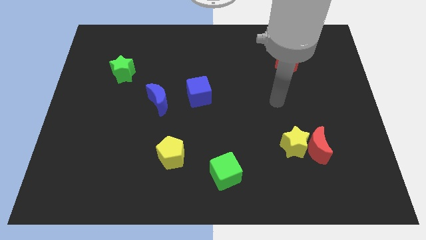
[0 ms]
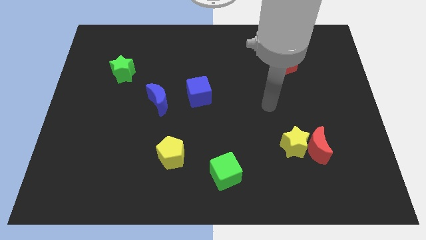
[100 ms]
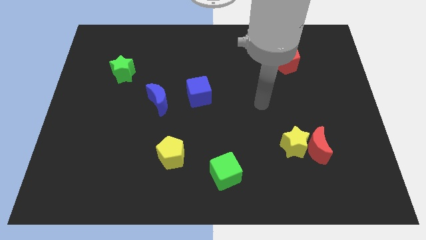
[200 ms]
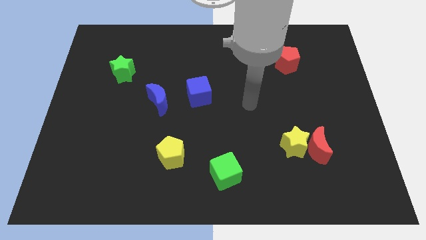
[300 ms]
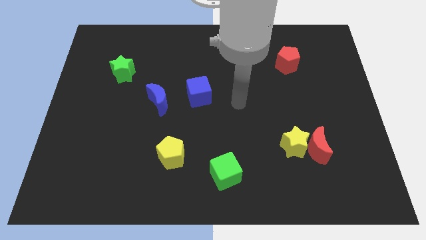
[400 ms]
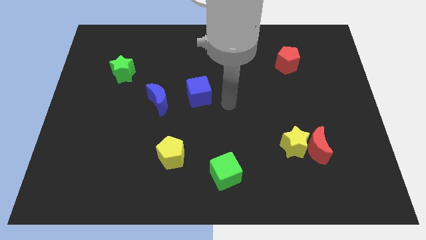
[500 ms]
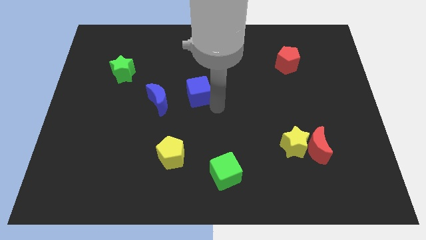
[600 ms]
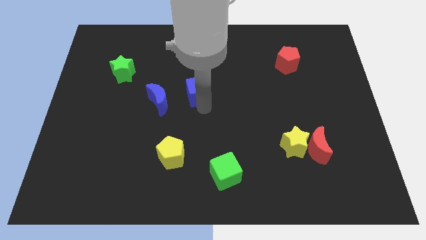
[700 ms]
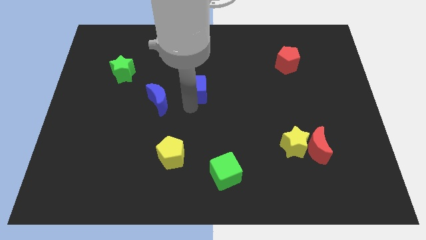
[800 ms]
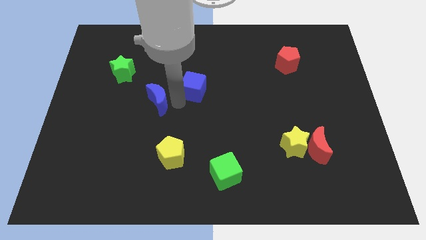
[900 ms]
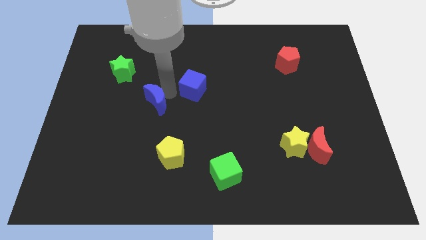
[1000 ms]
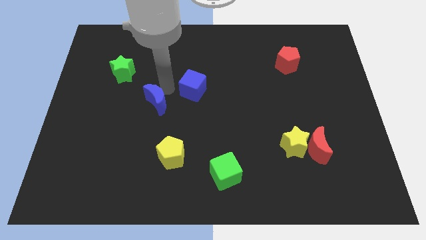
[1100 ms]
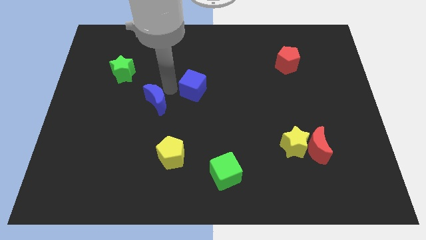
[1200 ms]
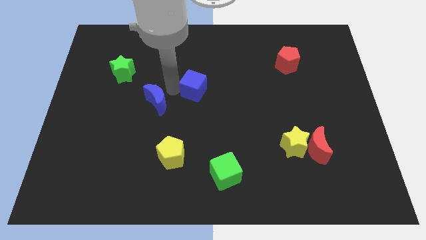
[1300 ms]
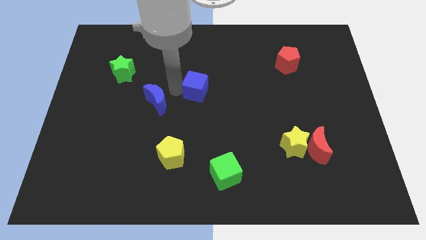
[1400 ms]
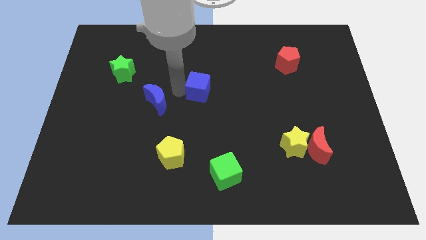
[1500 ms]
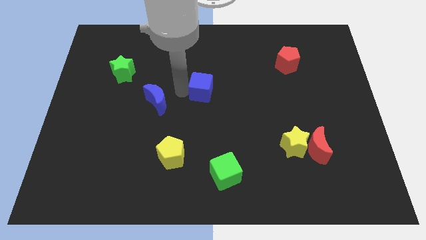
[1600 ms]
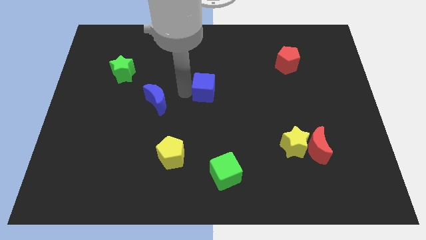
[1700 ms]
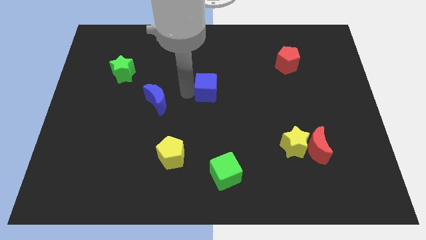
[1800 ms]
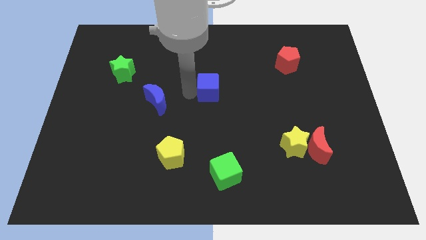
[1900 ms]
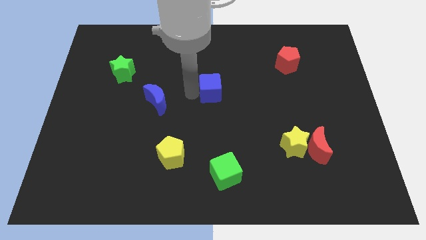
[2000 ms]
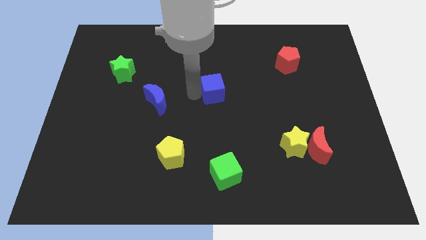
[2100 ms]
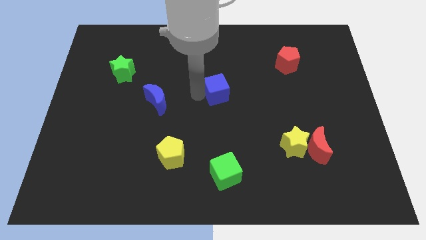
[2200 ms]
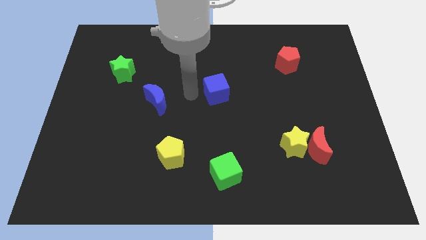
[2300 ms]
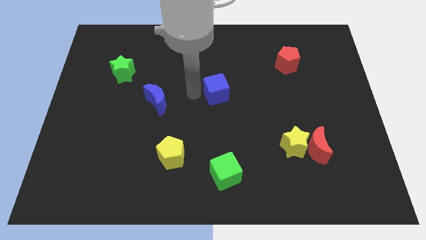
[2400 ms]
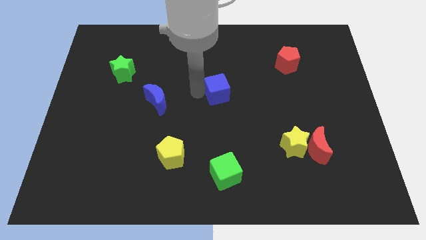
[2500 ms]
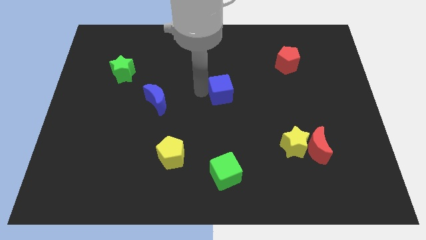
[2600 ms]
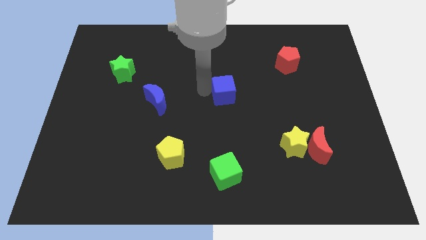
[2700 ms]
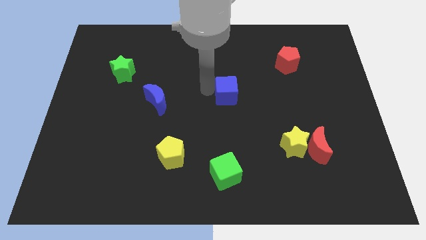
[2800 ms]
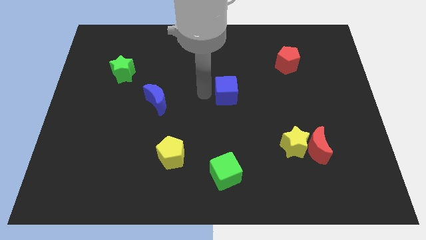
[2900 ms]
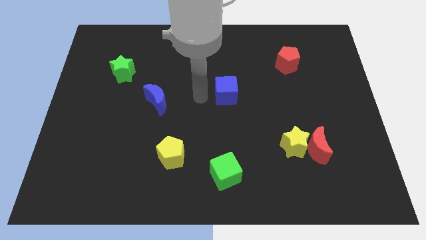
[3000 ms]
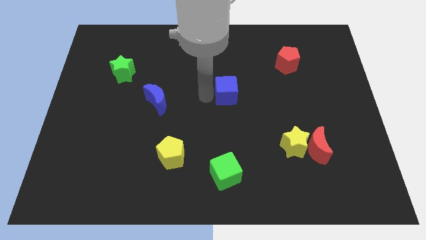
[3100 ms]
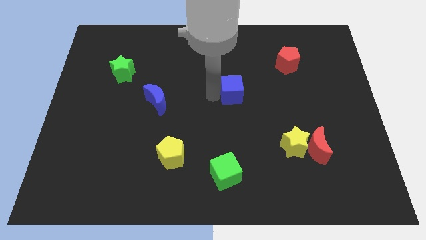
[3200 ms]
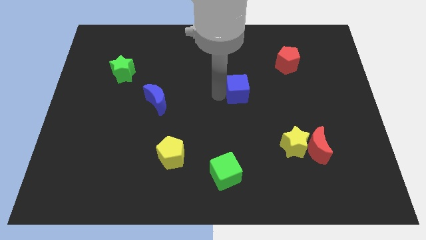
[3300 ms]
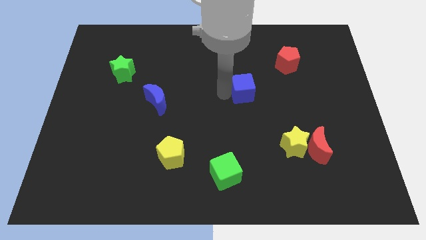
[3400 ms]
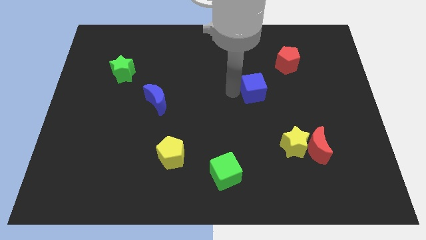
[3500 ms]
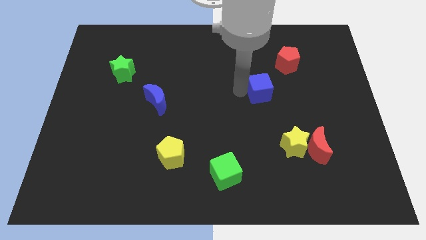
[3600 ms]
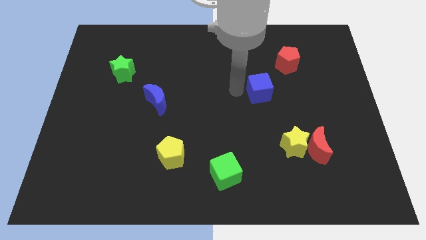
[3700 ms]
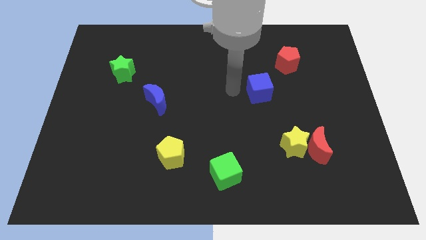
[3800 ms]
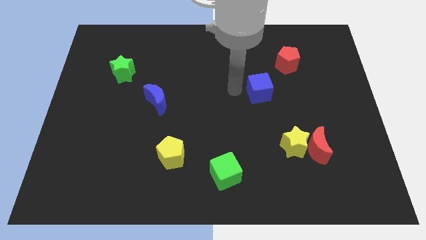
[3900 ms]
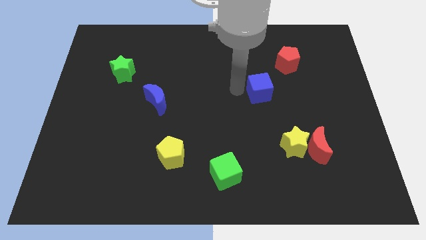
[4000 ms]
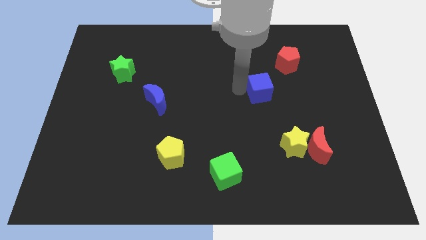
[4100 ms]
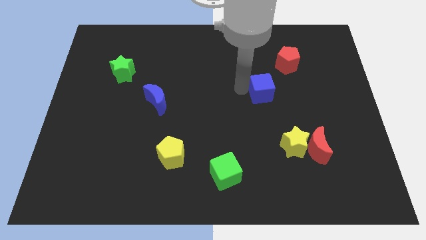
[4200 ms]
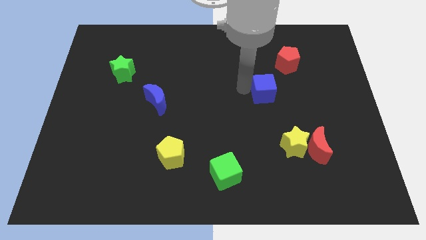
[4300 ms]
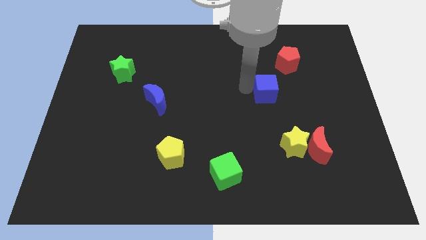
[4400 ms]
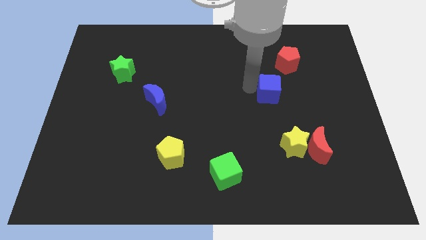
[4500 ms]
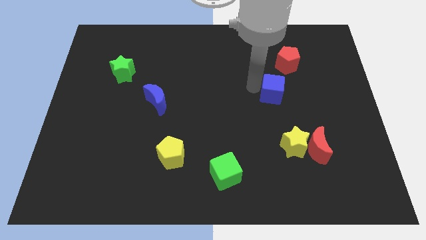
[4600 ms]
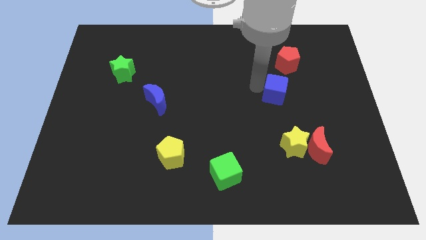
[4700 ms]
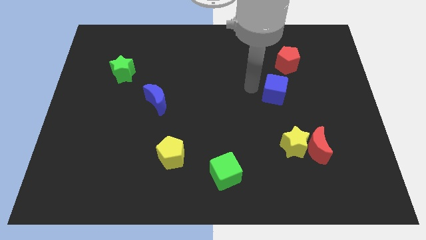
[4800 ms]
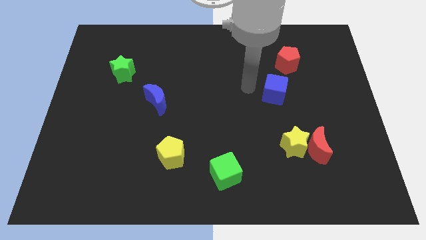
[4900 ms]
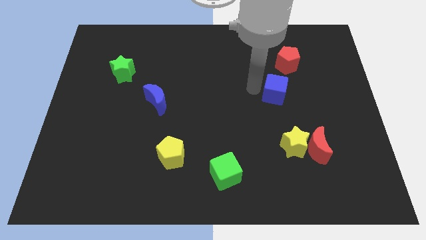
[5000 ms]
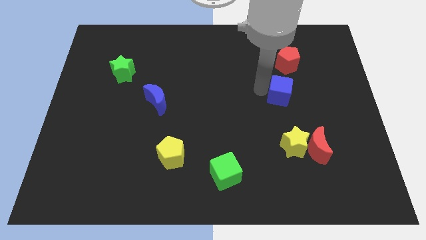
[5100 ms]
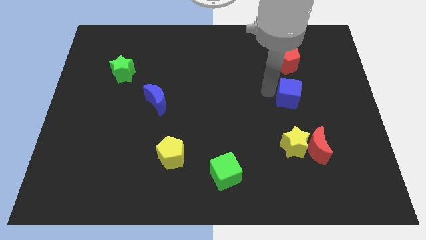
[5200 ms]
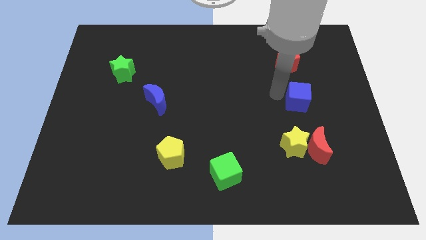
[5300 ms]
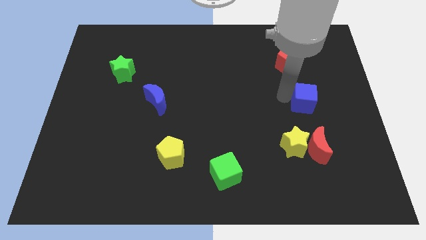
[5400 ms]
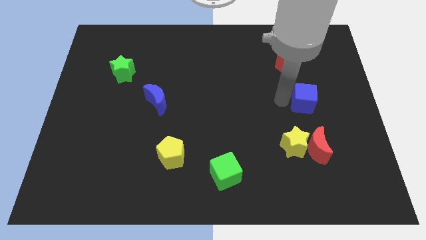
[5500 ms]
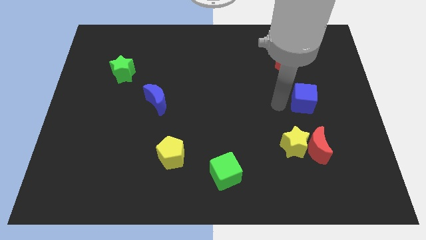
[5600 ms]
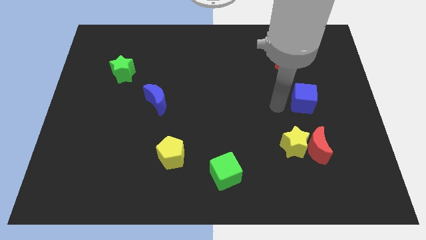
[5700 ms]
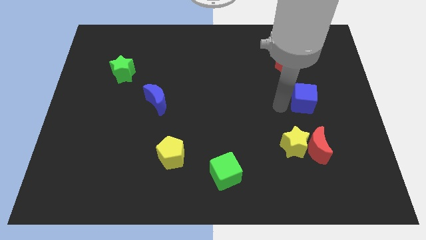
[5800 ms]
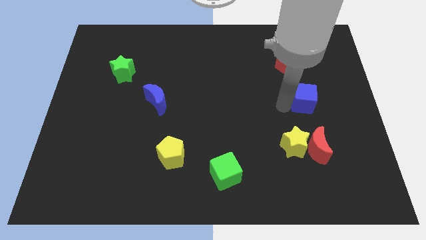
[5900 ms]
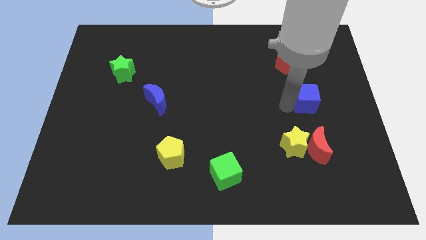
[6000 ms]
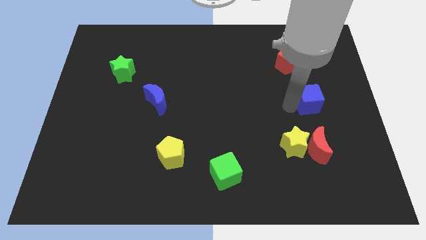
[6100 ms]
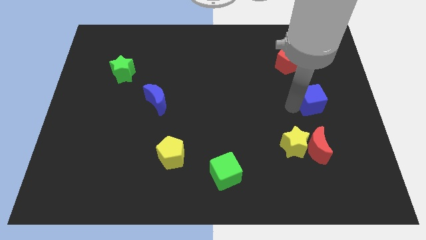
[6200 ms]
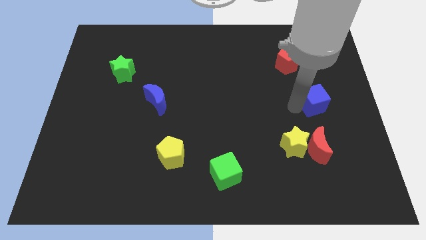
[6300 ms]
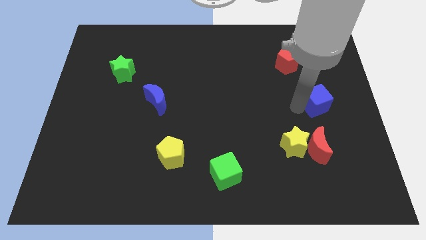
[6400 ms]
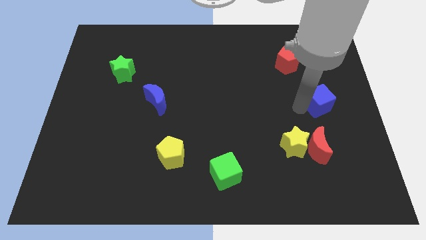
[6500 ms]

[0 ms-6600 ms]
put the blue cube to the right side of the board

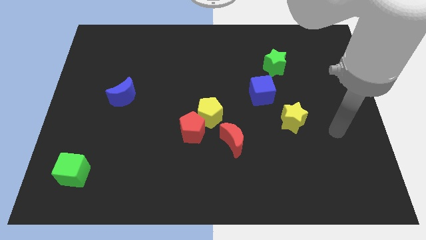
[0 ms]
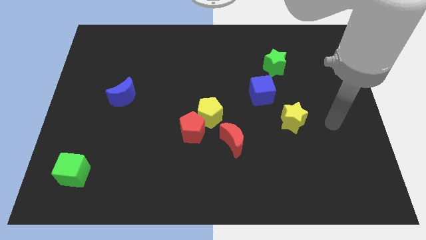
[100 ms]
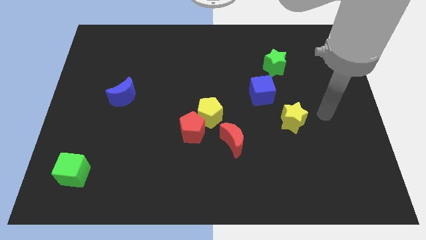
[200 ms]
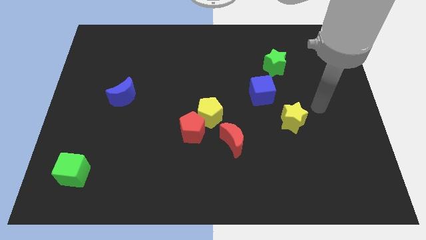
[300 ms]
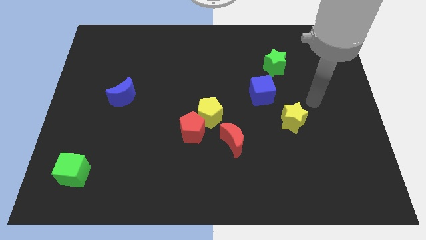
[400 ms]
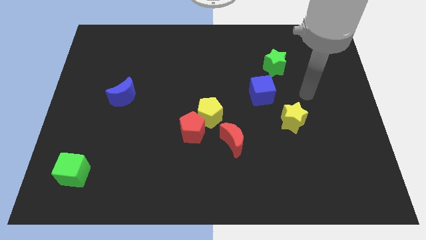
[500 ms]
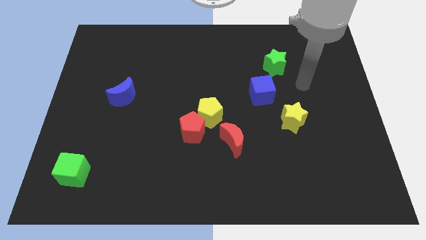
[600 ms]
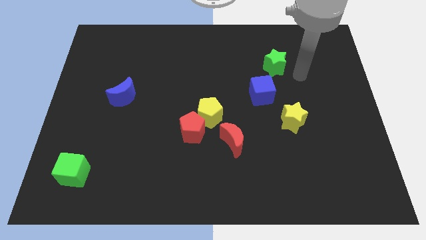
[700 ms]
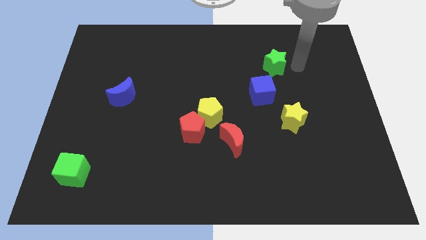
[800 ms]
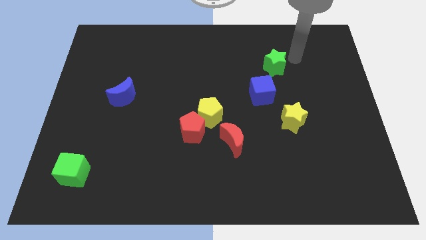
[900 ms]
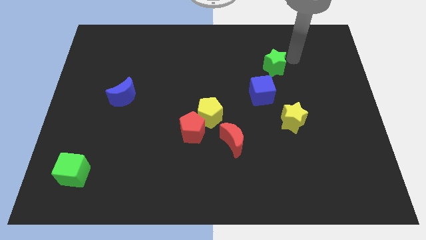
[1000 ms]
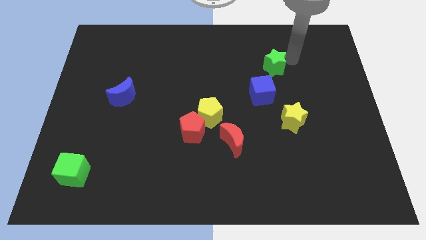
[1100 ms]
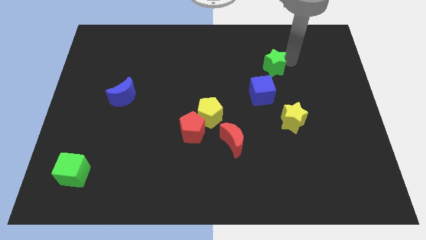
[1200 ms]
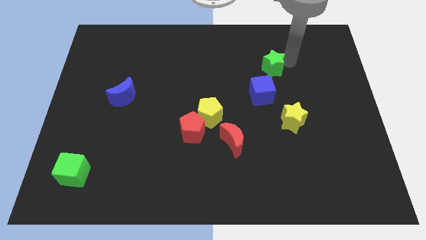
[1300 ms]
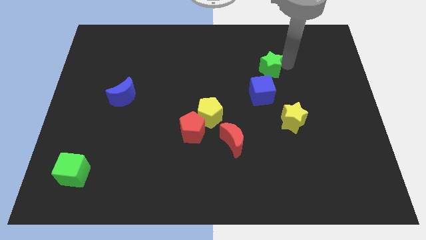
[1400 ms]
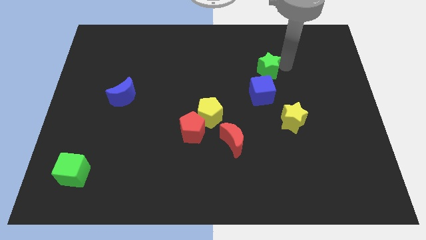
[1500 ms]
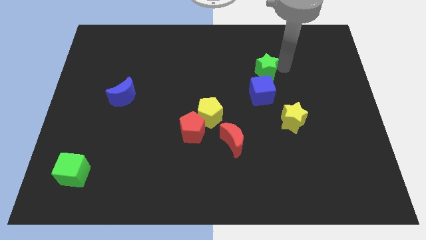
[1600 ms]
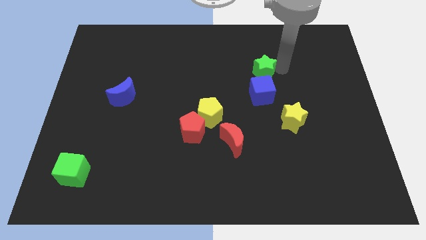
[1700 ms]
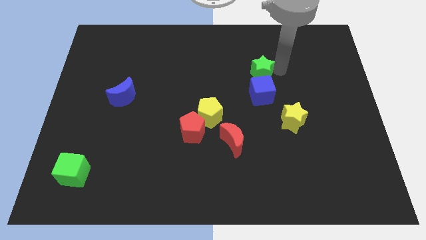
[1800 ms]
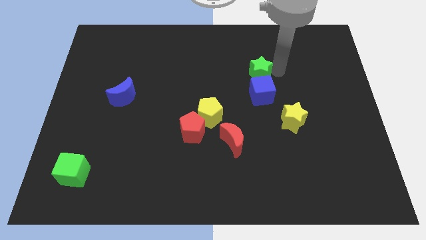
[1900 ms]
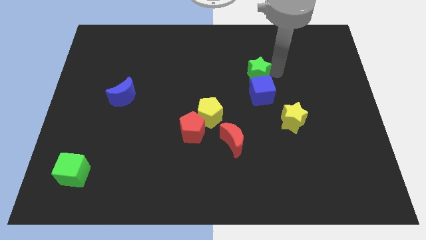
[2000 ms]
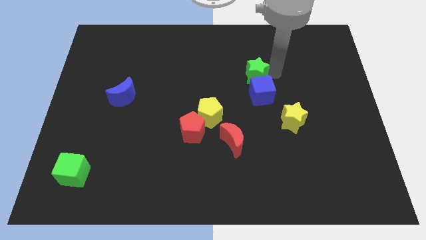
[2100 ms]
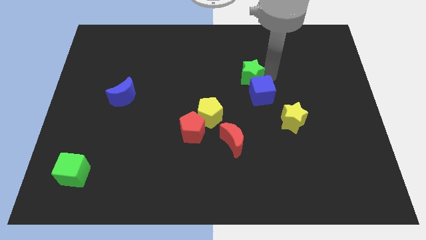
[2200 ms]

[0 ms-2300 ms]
push the green star to the center of the board
